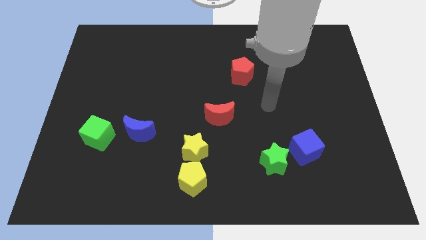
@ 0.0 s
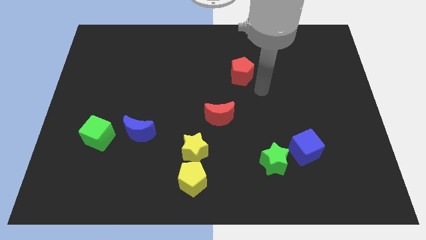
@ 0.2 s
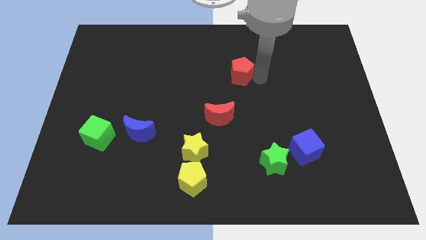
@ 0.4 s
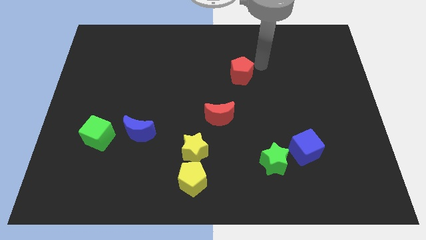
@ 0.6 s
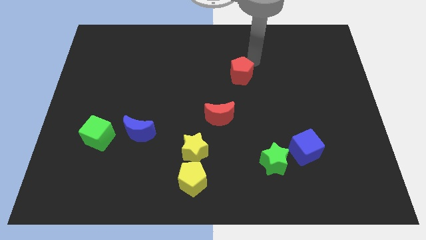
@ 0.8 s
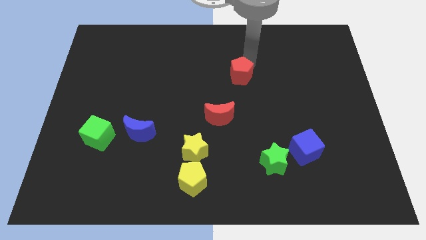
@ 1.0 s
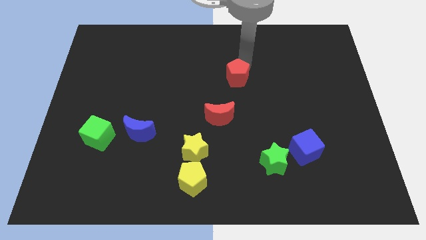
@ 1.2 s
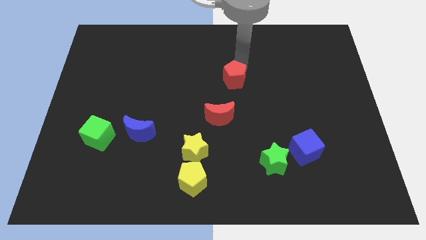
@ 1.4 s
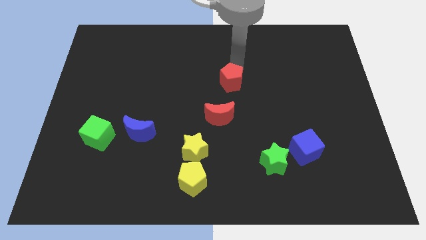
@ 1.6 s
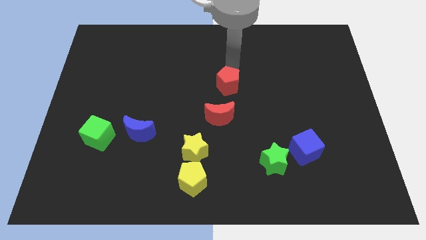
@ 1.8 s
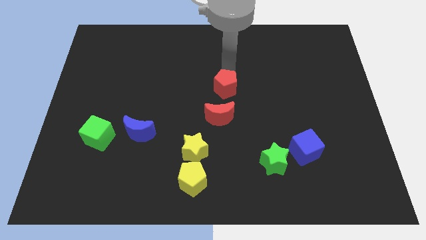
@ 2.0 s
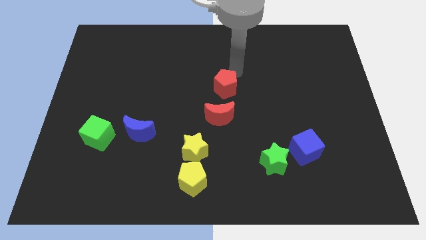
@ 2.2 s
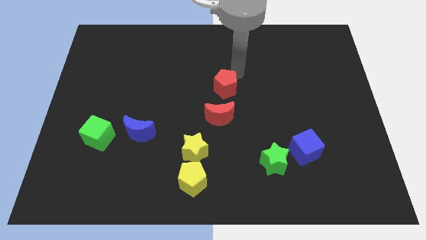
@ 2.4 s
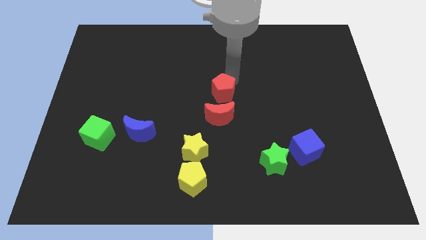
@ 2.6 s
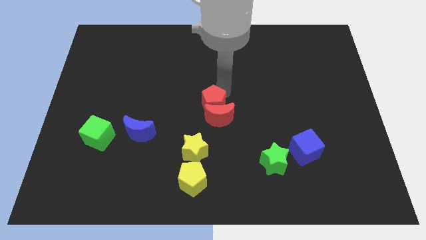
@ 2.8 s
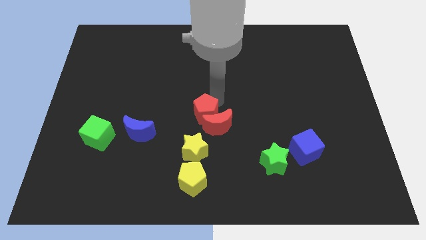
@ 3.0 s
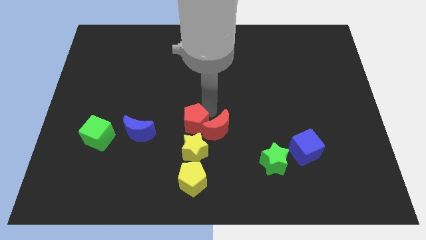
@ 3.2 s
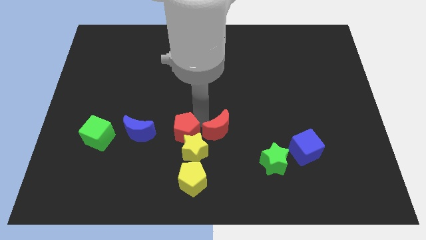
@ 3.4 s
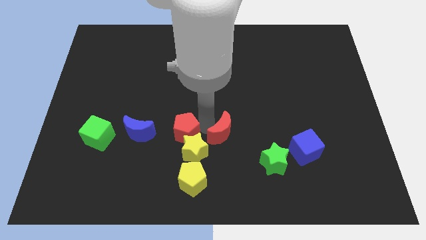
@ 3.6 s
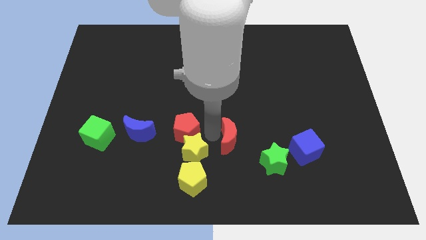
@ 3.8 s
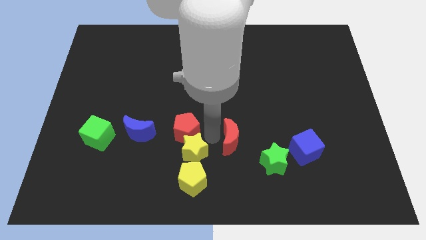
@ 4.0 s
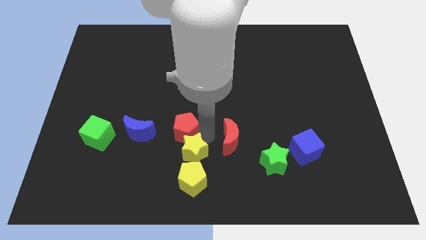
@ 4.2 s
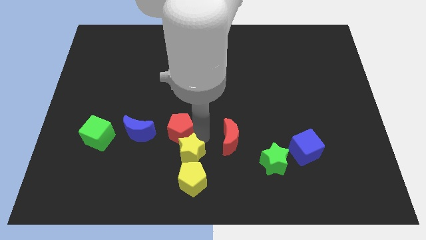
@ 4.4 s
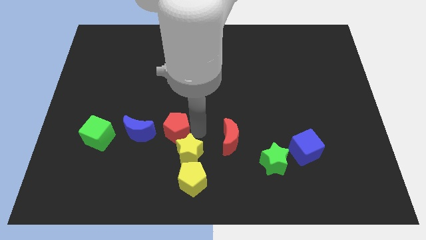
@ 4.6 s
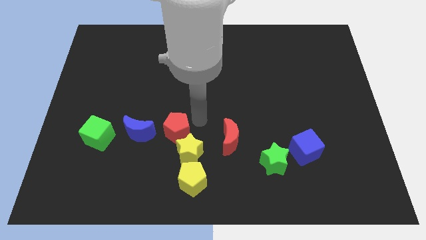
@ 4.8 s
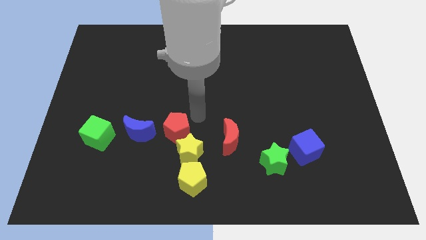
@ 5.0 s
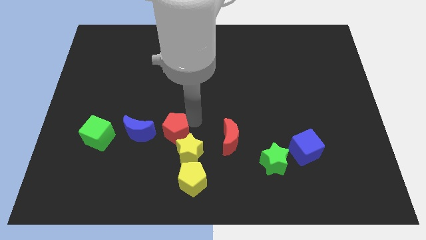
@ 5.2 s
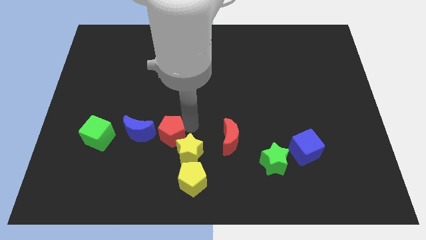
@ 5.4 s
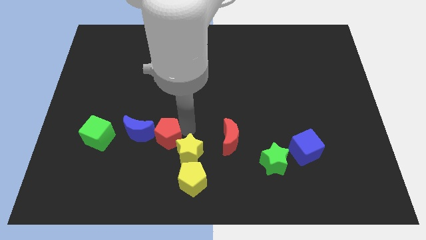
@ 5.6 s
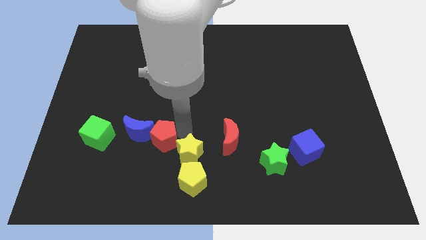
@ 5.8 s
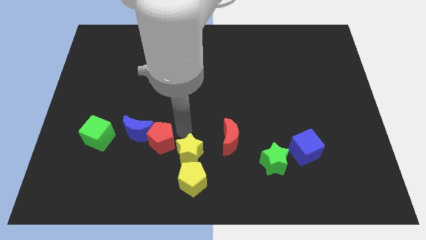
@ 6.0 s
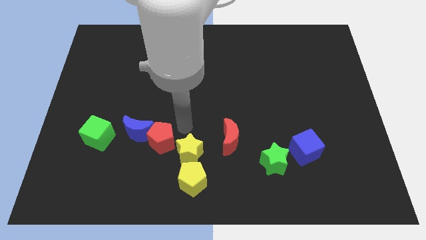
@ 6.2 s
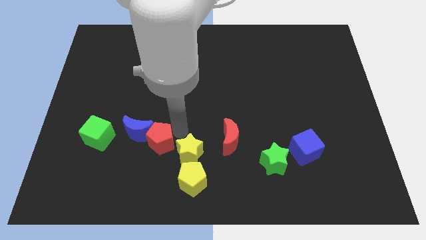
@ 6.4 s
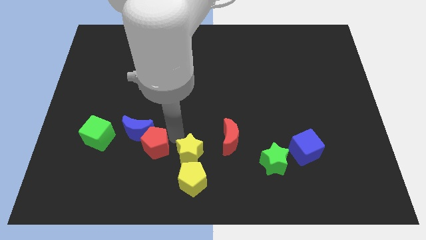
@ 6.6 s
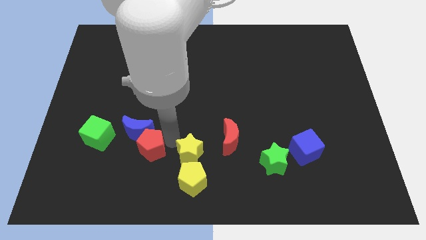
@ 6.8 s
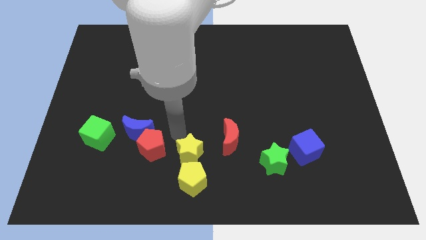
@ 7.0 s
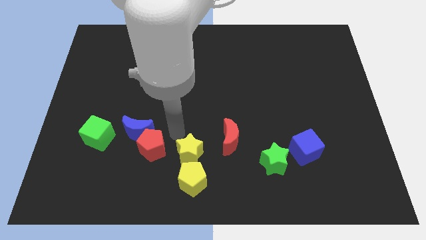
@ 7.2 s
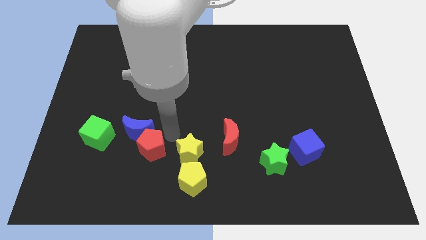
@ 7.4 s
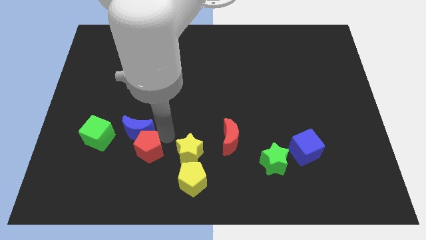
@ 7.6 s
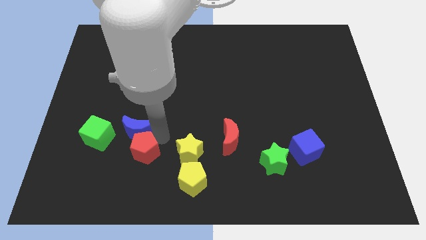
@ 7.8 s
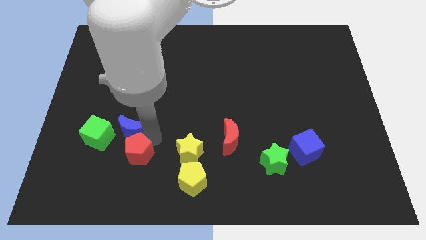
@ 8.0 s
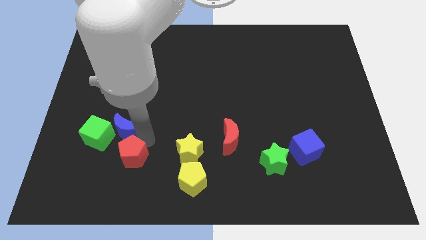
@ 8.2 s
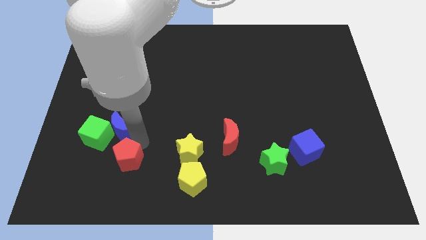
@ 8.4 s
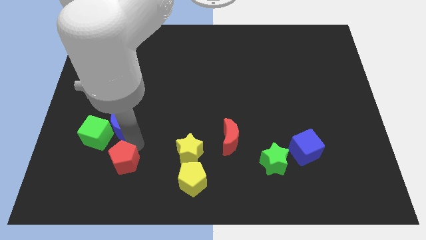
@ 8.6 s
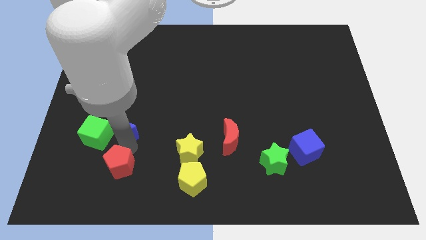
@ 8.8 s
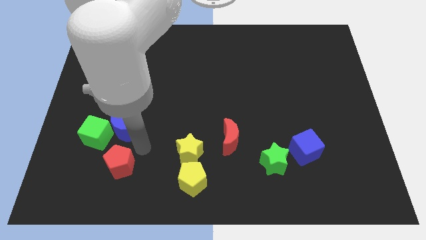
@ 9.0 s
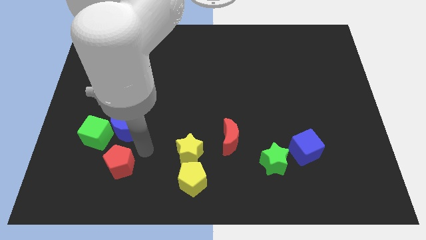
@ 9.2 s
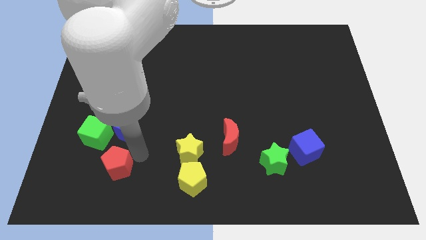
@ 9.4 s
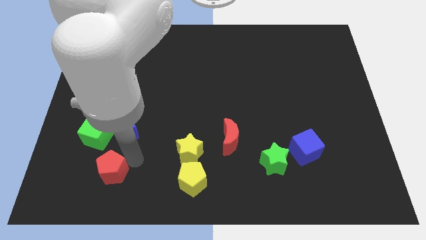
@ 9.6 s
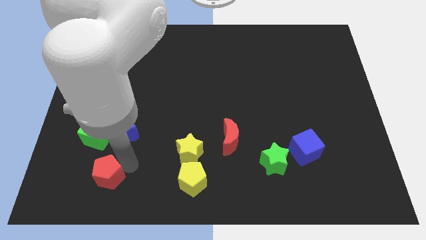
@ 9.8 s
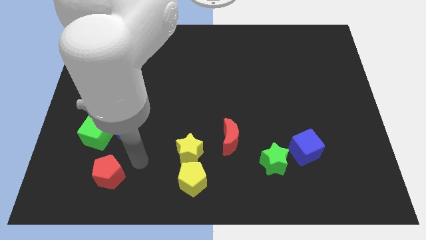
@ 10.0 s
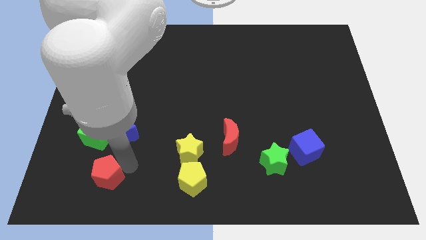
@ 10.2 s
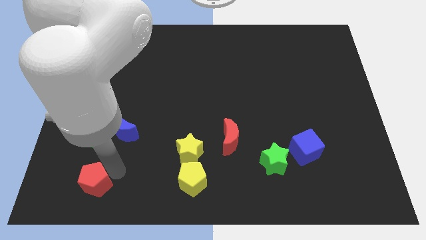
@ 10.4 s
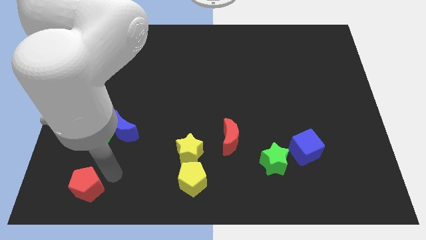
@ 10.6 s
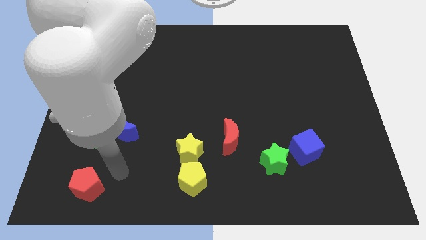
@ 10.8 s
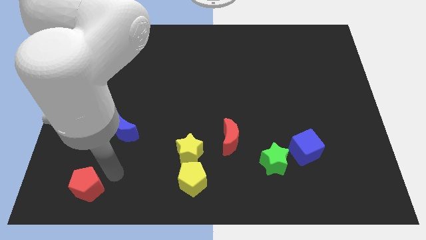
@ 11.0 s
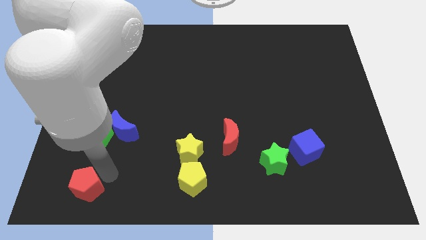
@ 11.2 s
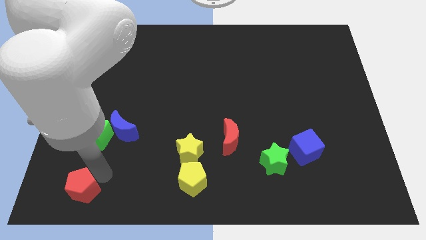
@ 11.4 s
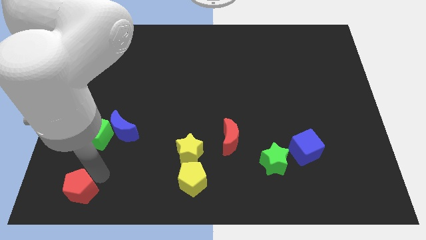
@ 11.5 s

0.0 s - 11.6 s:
slide the red pentagon to the bottom left corner

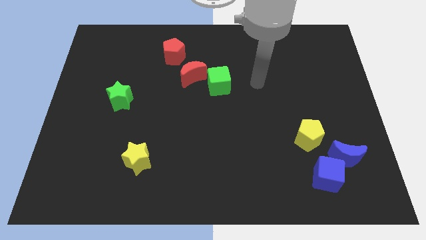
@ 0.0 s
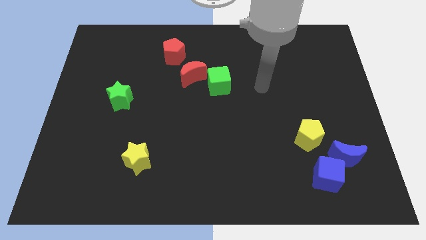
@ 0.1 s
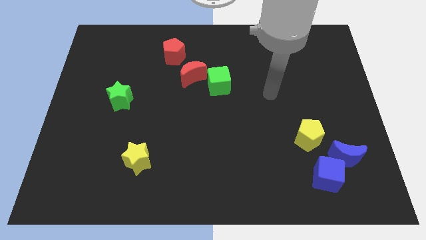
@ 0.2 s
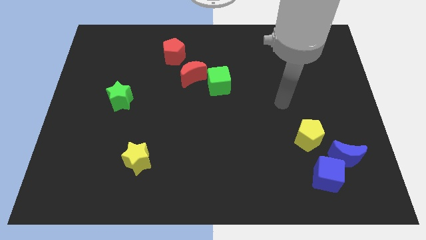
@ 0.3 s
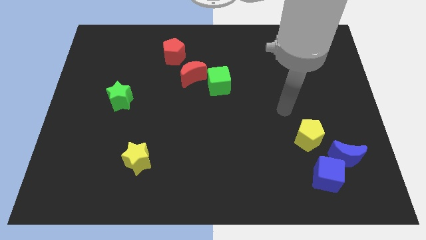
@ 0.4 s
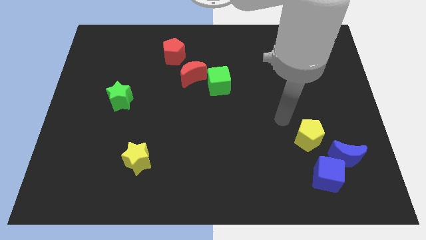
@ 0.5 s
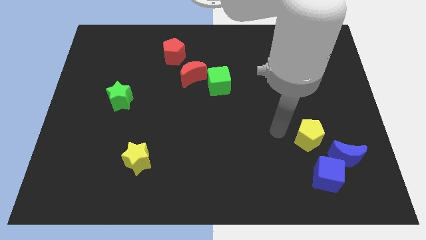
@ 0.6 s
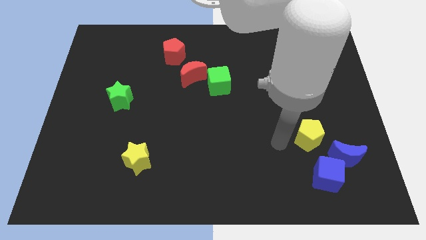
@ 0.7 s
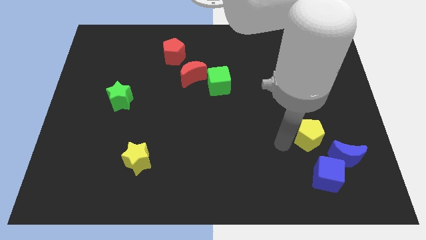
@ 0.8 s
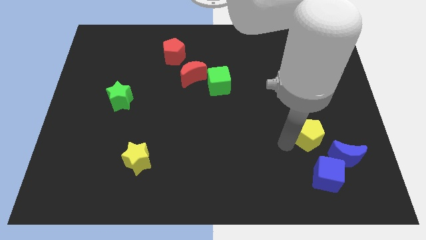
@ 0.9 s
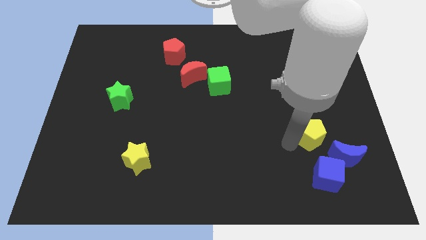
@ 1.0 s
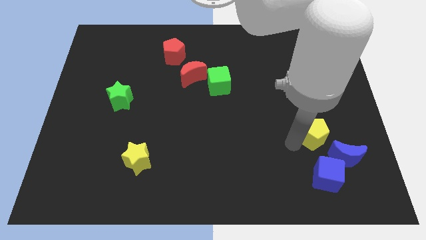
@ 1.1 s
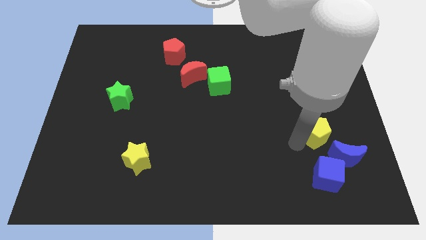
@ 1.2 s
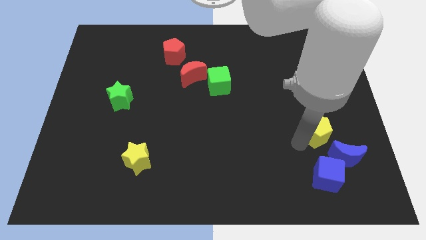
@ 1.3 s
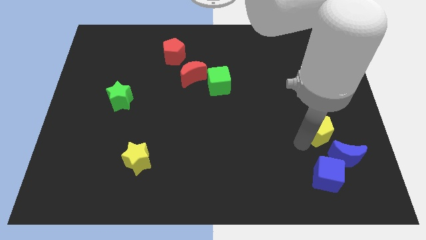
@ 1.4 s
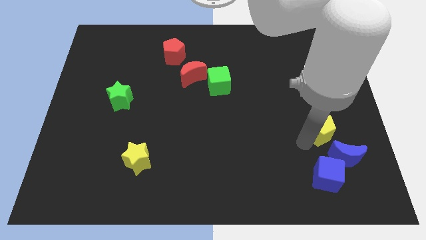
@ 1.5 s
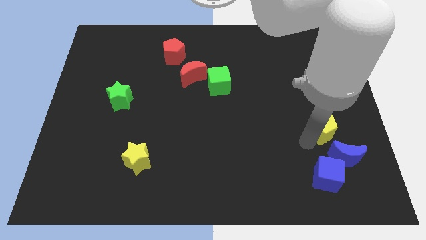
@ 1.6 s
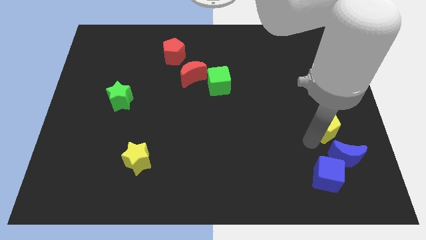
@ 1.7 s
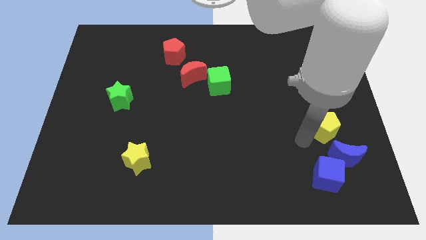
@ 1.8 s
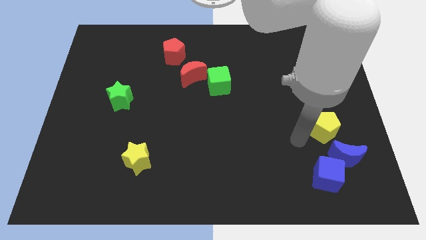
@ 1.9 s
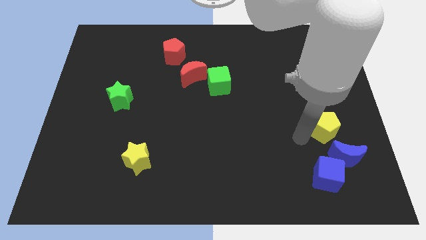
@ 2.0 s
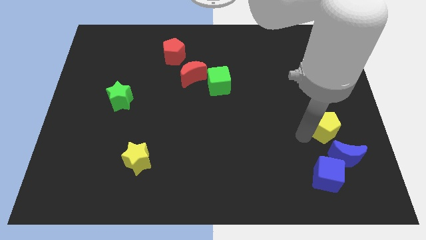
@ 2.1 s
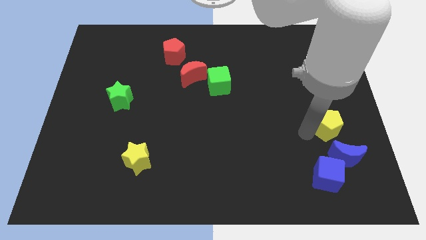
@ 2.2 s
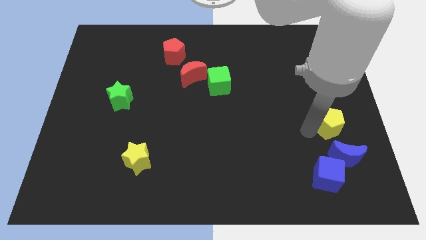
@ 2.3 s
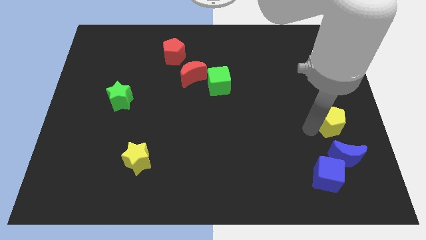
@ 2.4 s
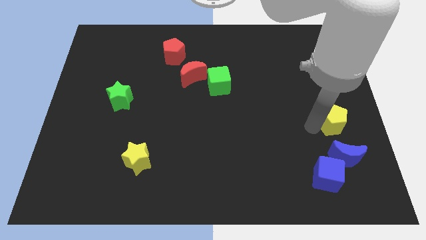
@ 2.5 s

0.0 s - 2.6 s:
push the yellow pentagon to the center right
